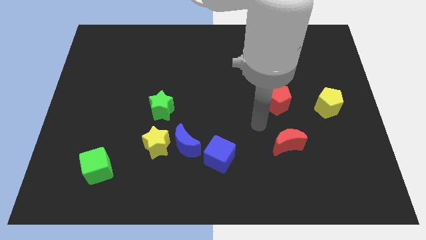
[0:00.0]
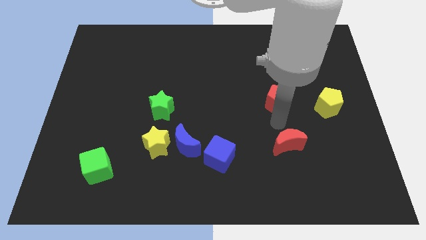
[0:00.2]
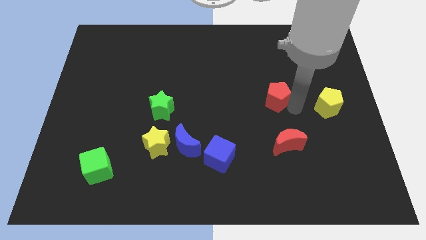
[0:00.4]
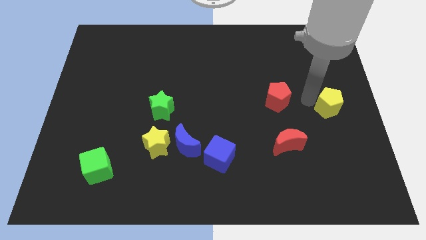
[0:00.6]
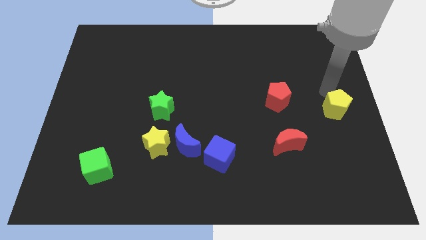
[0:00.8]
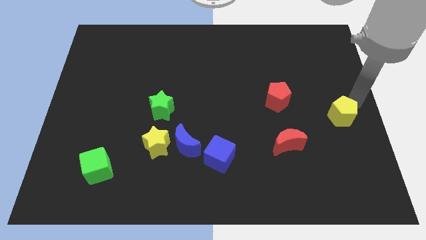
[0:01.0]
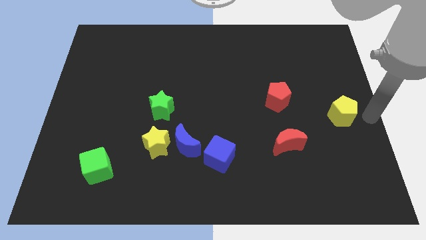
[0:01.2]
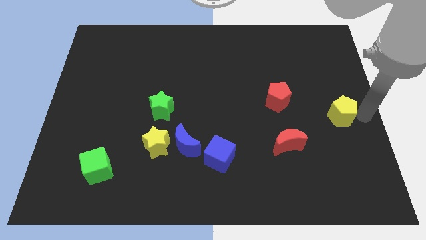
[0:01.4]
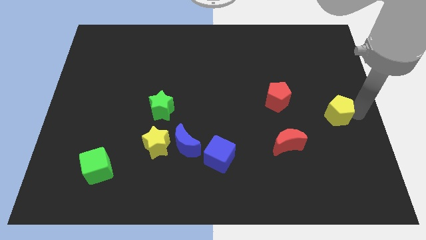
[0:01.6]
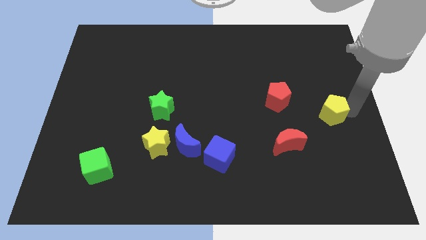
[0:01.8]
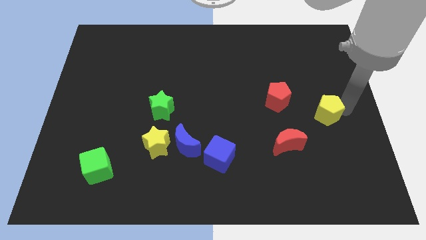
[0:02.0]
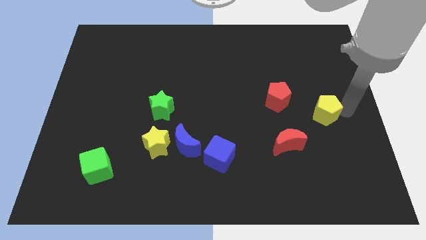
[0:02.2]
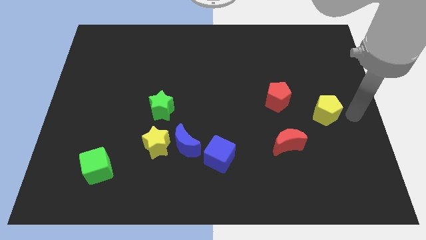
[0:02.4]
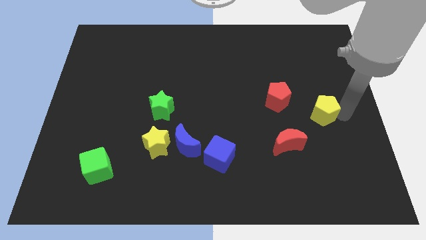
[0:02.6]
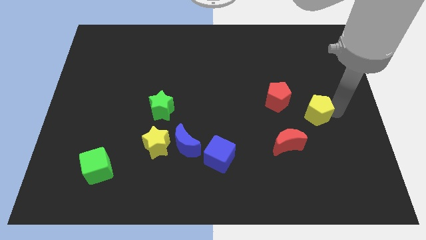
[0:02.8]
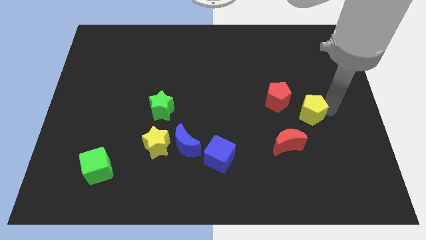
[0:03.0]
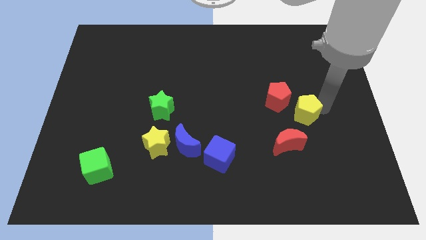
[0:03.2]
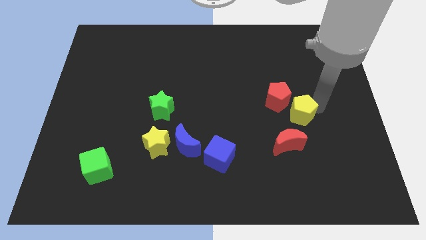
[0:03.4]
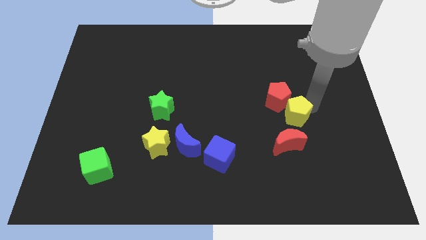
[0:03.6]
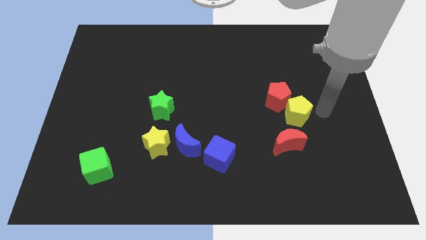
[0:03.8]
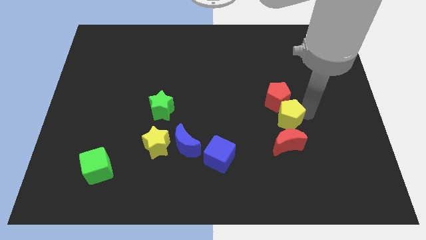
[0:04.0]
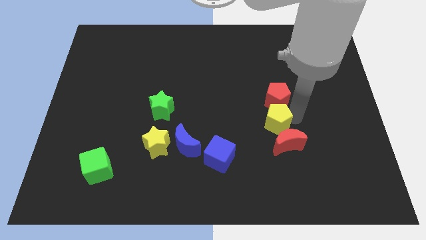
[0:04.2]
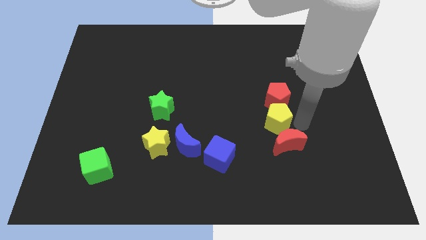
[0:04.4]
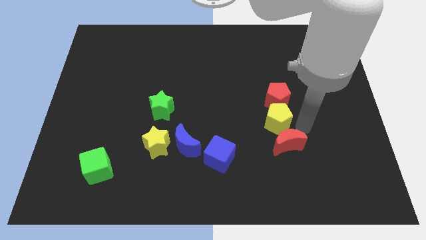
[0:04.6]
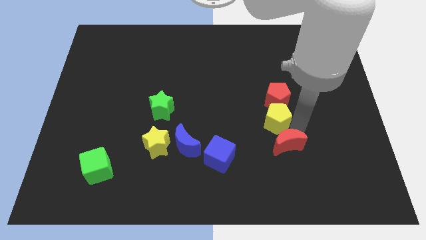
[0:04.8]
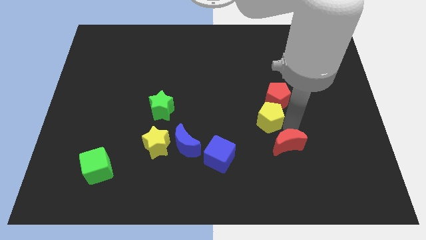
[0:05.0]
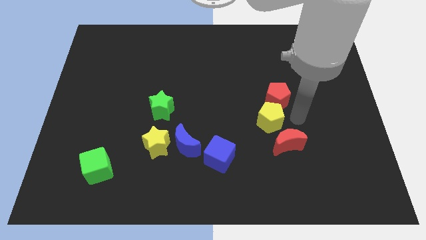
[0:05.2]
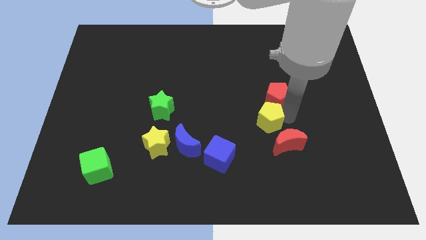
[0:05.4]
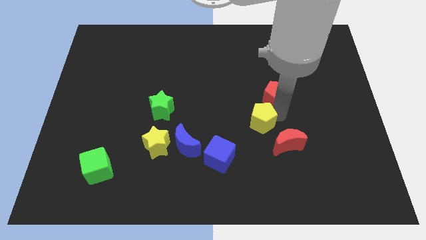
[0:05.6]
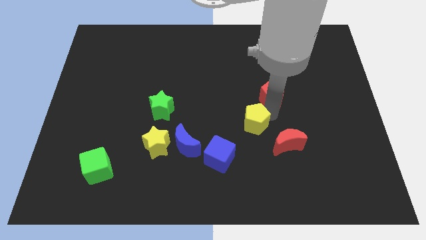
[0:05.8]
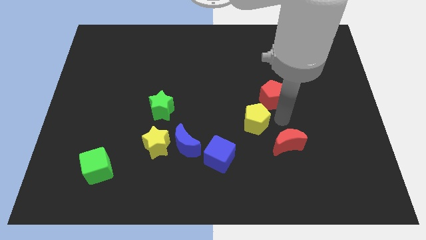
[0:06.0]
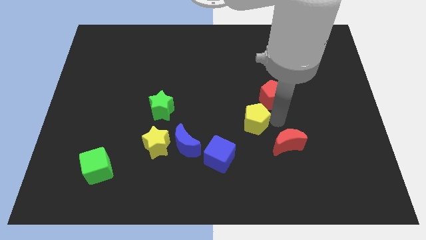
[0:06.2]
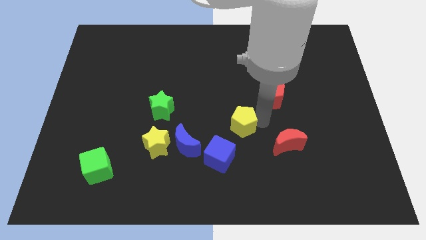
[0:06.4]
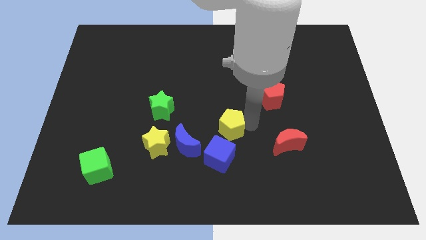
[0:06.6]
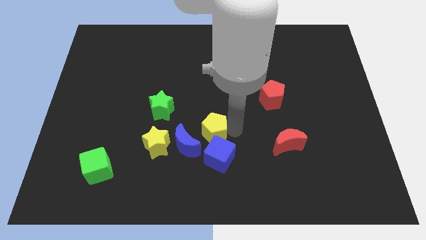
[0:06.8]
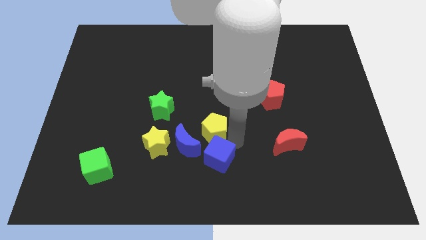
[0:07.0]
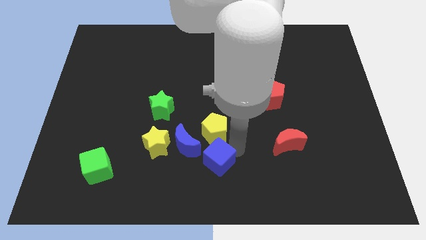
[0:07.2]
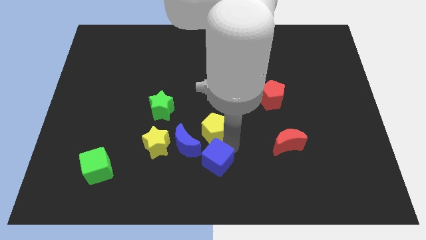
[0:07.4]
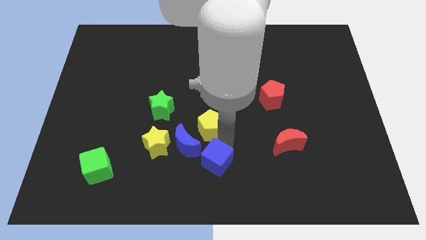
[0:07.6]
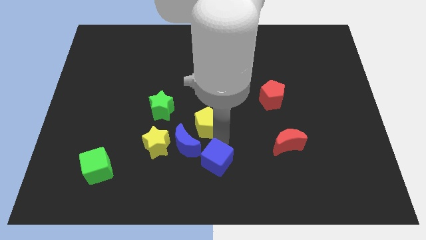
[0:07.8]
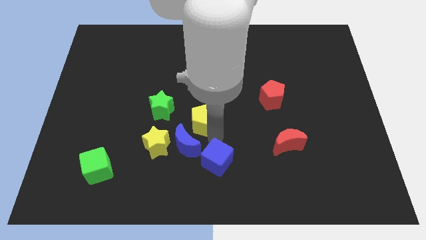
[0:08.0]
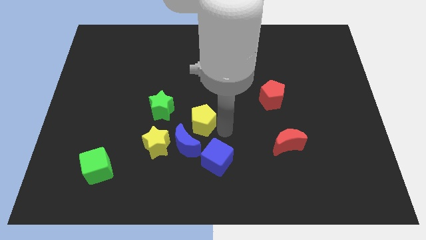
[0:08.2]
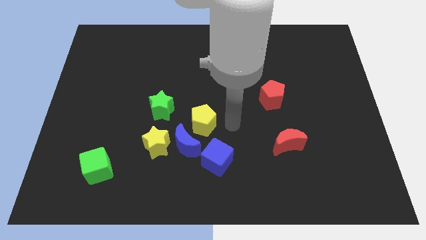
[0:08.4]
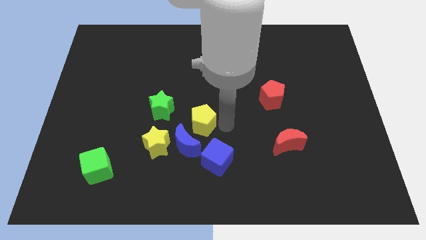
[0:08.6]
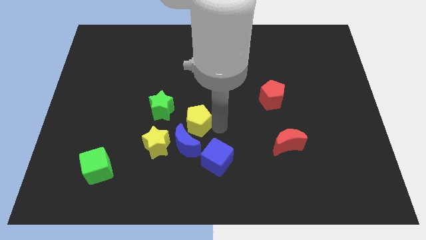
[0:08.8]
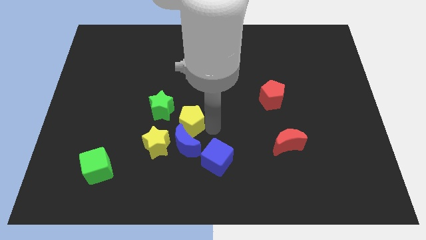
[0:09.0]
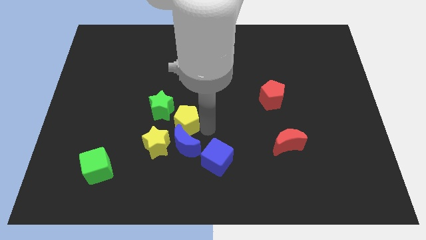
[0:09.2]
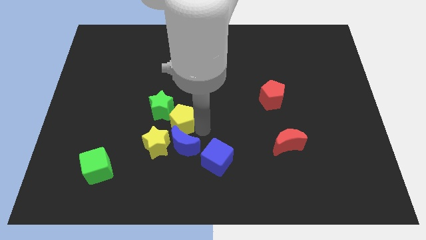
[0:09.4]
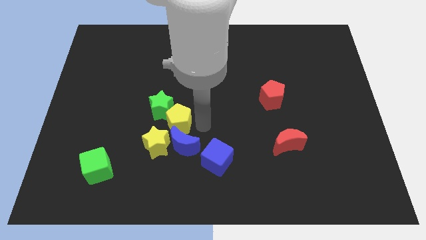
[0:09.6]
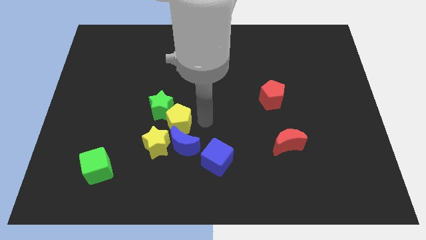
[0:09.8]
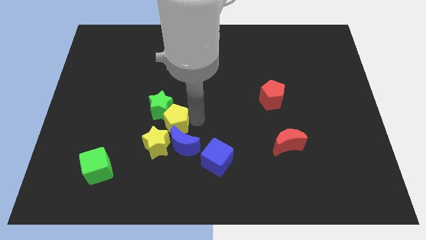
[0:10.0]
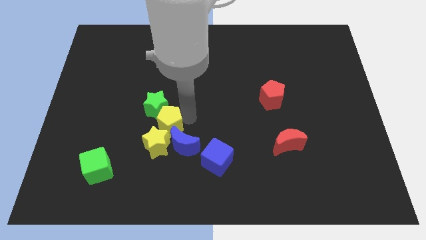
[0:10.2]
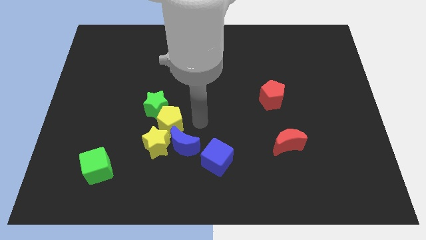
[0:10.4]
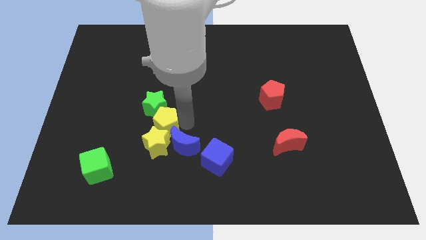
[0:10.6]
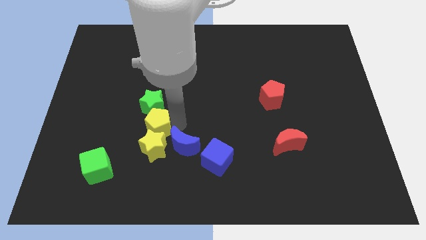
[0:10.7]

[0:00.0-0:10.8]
push the yellow pentagon diagonally up and to the left of the yellow star

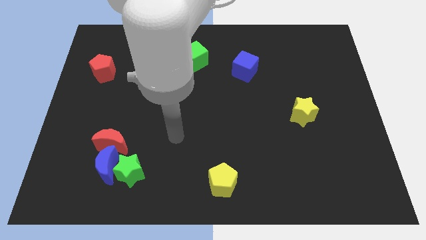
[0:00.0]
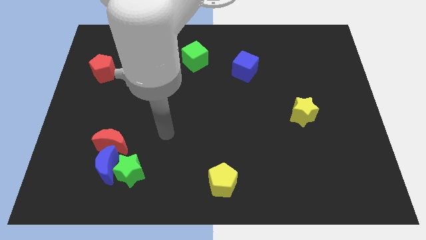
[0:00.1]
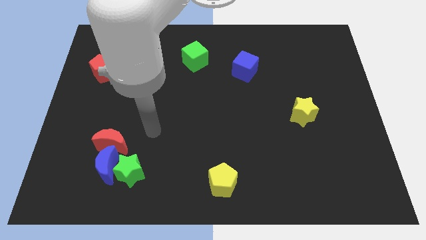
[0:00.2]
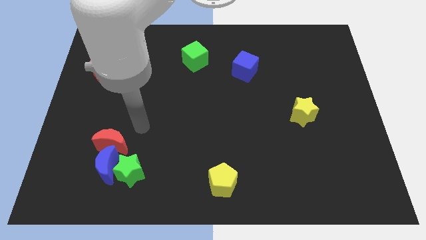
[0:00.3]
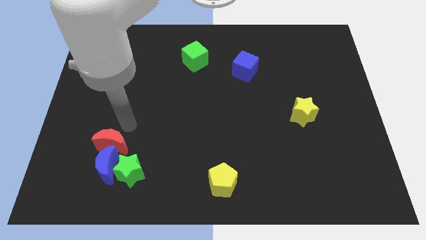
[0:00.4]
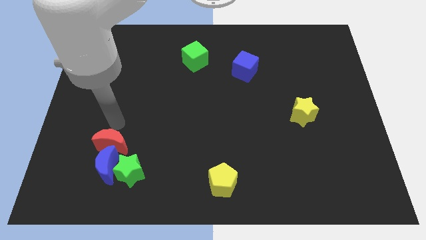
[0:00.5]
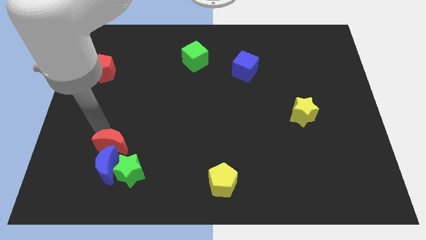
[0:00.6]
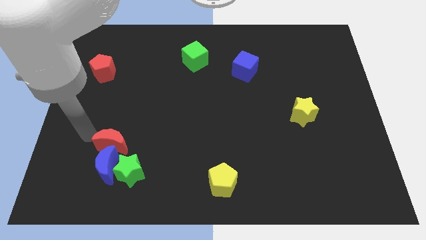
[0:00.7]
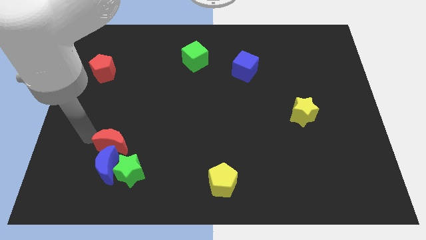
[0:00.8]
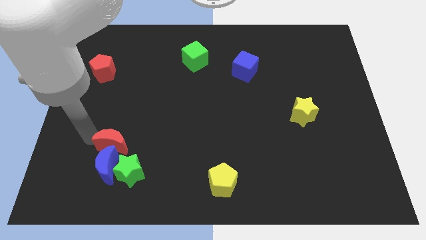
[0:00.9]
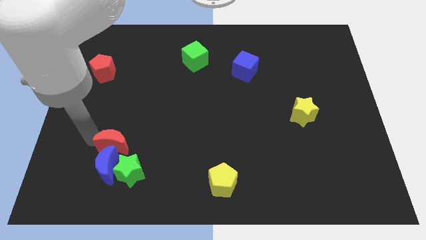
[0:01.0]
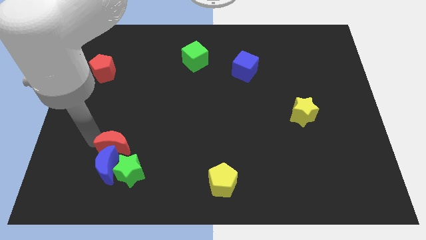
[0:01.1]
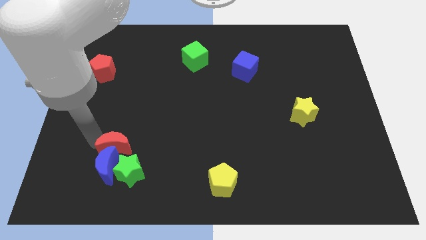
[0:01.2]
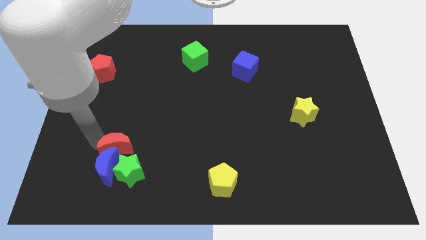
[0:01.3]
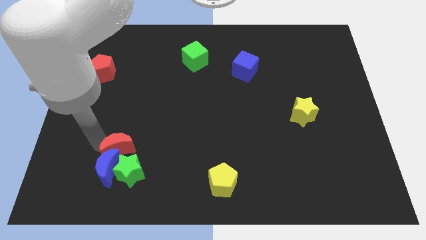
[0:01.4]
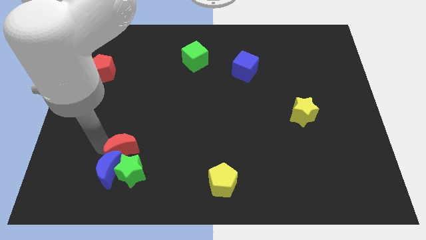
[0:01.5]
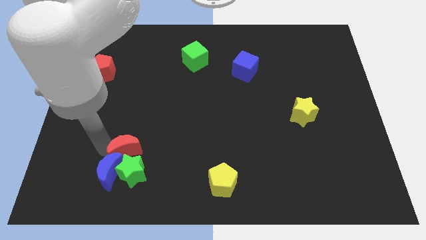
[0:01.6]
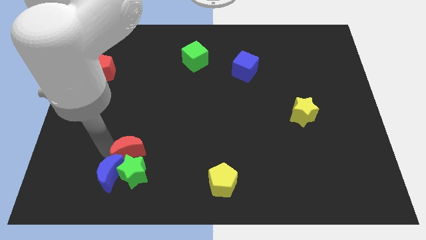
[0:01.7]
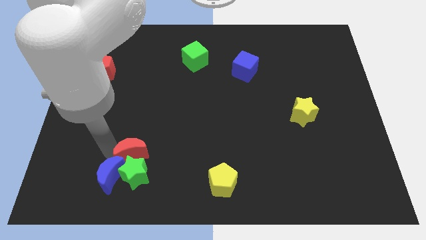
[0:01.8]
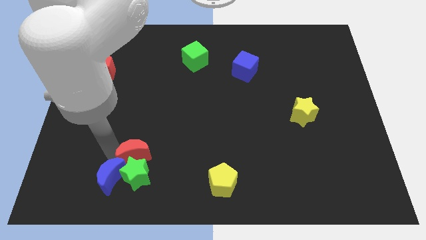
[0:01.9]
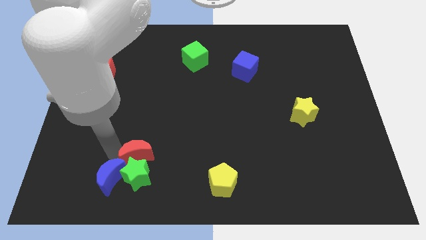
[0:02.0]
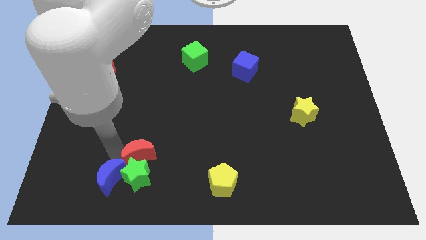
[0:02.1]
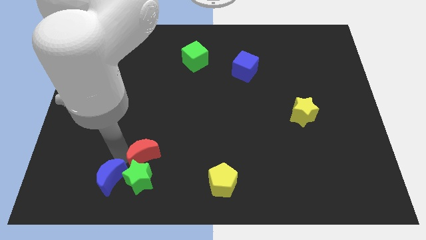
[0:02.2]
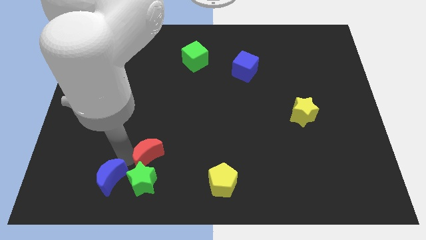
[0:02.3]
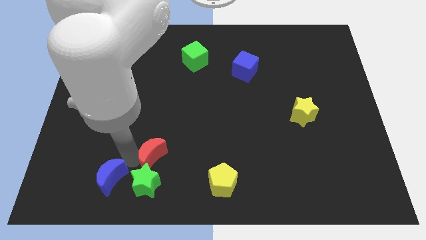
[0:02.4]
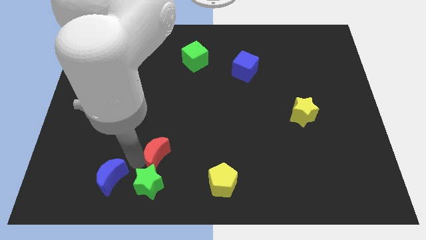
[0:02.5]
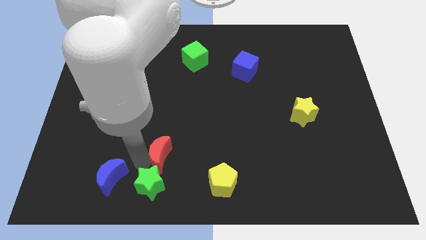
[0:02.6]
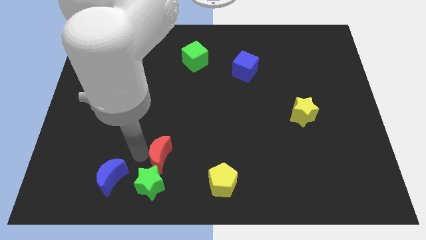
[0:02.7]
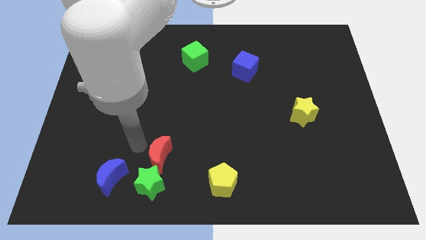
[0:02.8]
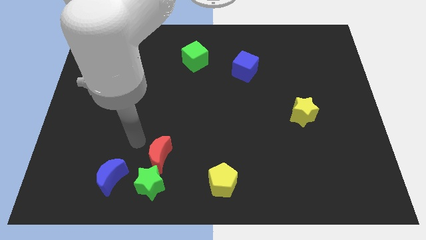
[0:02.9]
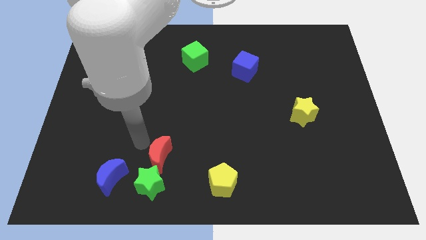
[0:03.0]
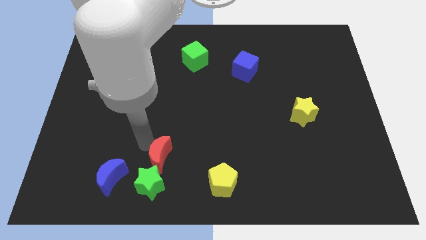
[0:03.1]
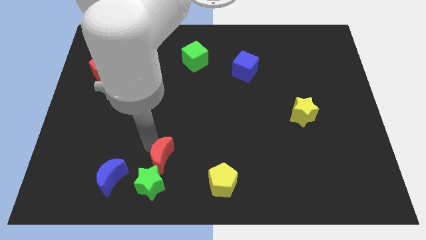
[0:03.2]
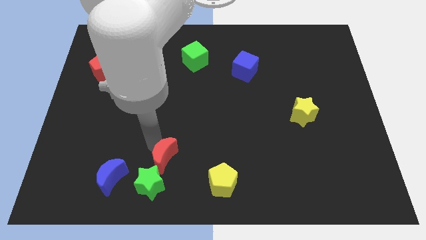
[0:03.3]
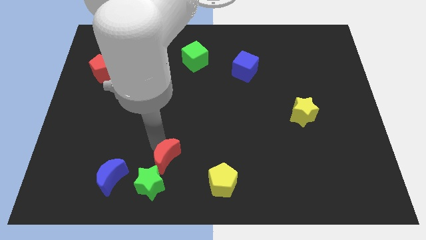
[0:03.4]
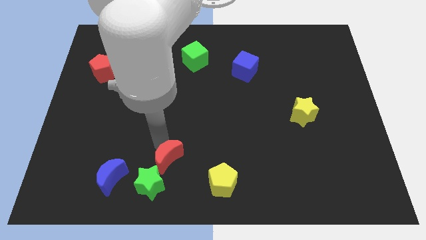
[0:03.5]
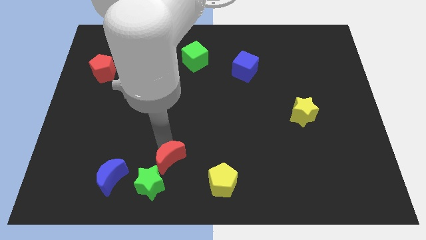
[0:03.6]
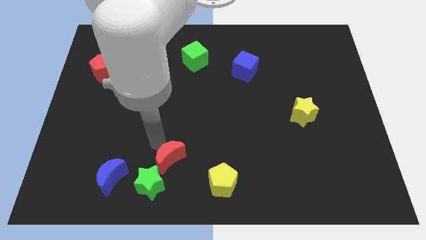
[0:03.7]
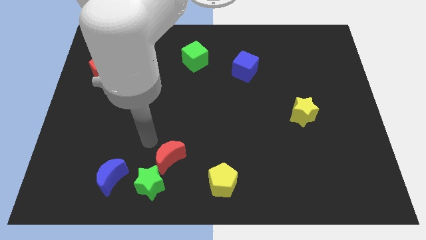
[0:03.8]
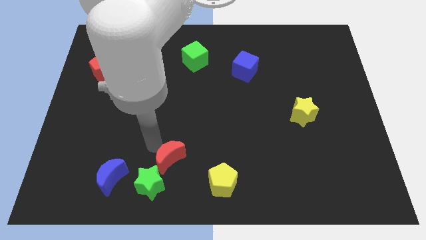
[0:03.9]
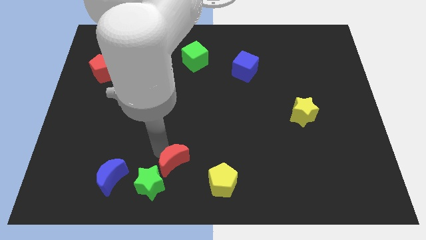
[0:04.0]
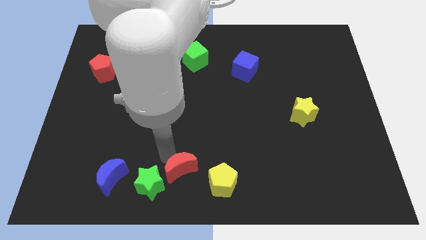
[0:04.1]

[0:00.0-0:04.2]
push the red moon right of the green star
